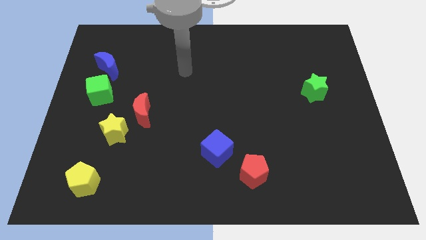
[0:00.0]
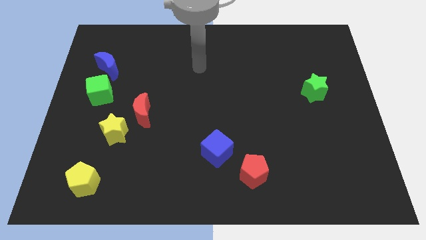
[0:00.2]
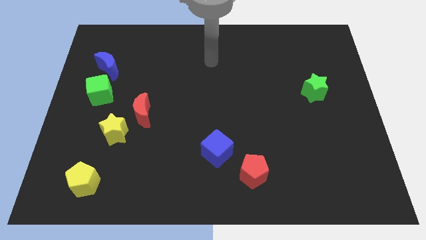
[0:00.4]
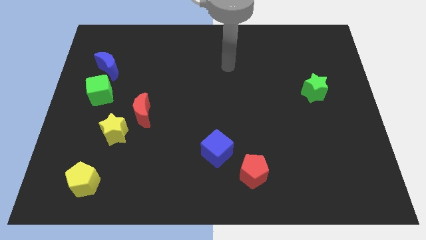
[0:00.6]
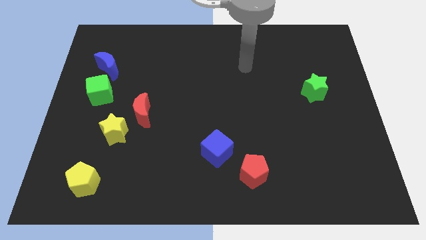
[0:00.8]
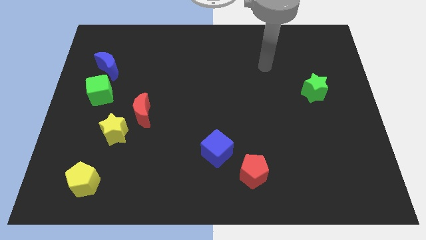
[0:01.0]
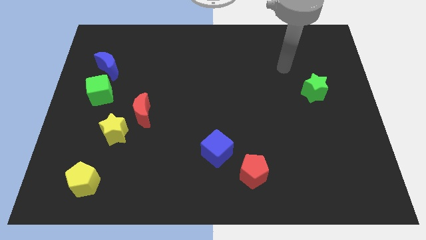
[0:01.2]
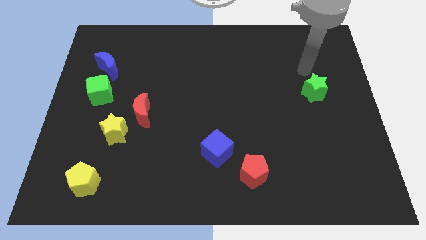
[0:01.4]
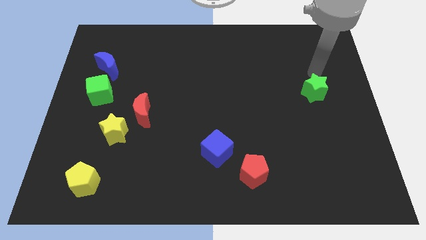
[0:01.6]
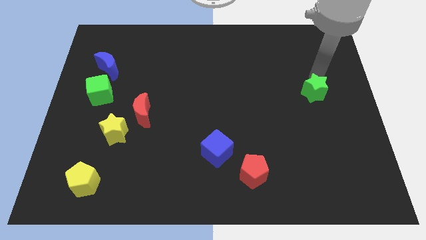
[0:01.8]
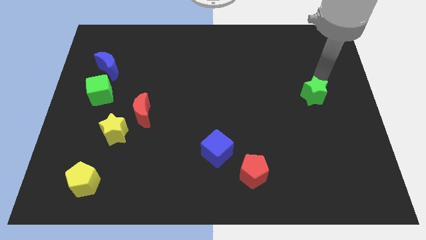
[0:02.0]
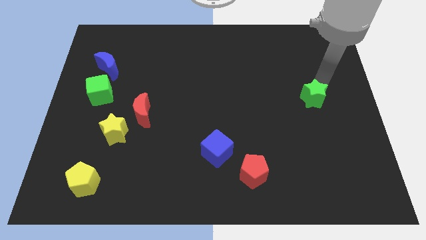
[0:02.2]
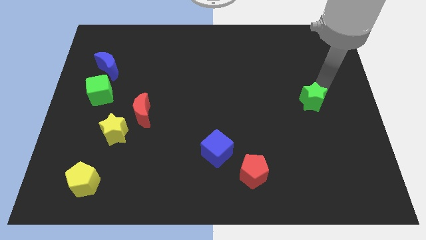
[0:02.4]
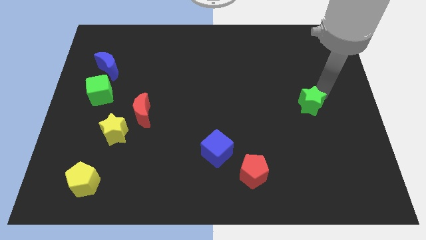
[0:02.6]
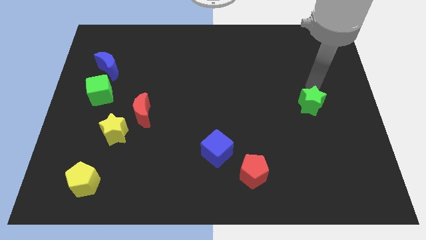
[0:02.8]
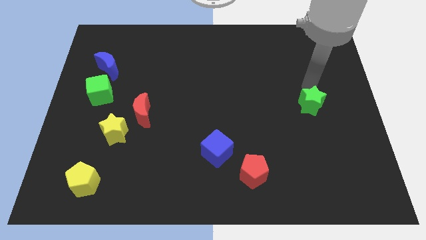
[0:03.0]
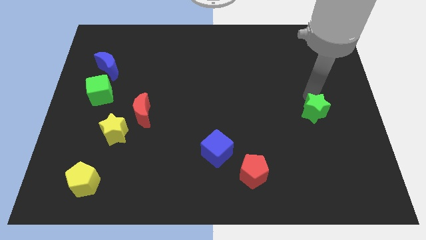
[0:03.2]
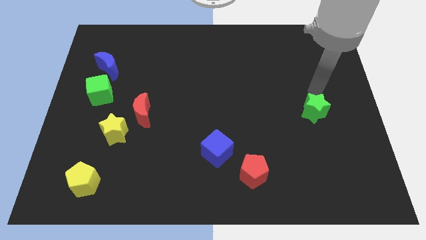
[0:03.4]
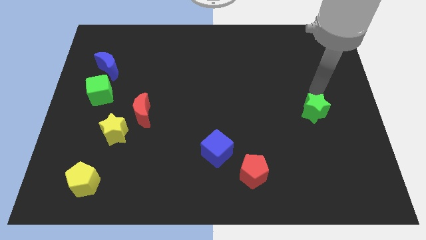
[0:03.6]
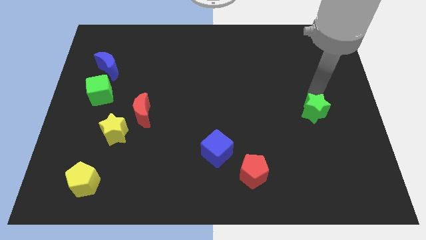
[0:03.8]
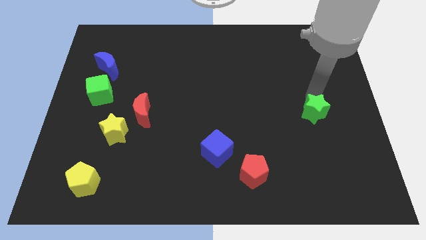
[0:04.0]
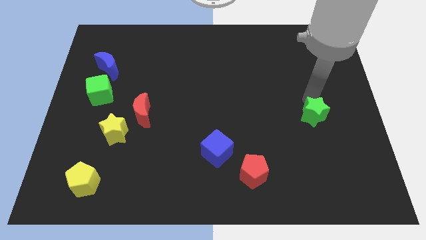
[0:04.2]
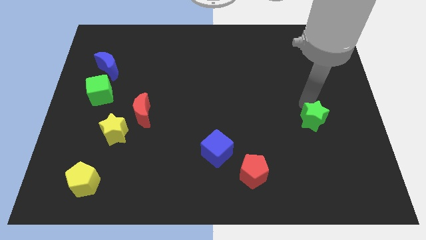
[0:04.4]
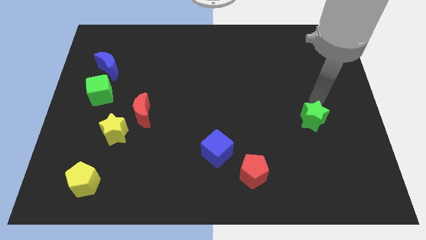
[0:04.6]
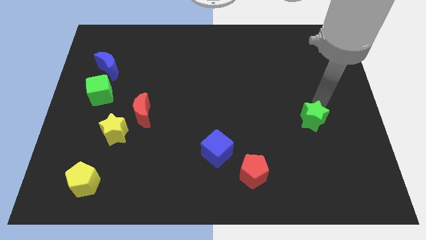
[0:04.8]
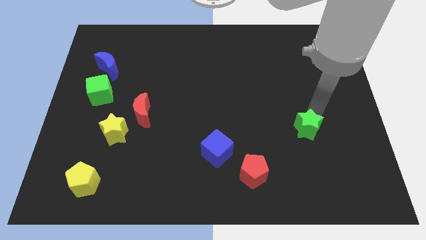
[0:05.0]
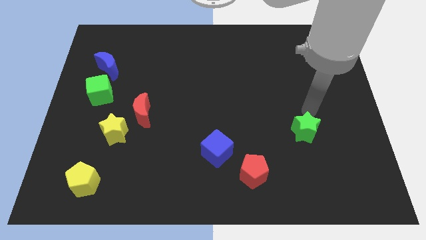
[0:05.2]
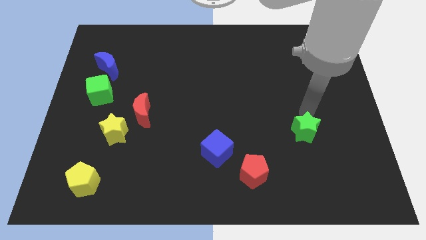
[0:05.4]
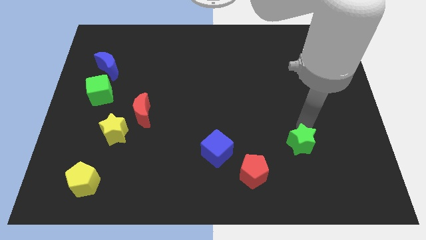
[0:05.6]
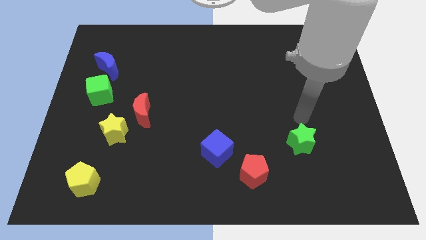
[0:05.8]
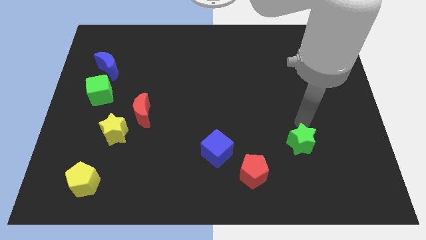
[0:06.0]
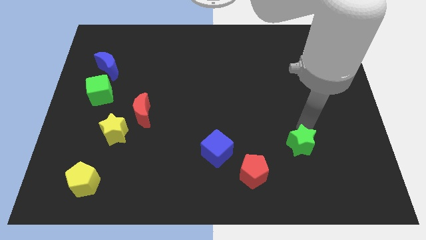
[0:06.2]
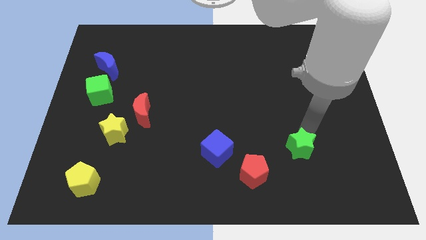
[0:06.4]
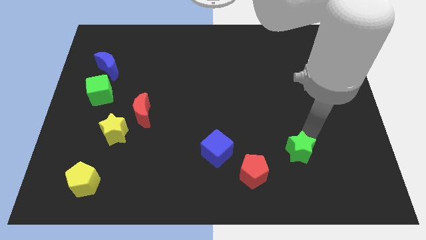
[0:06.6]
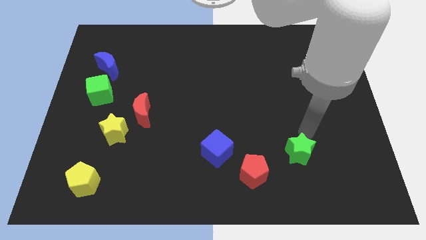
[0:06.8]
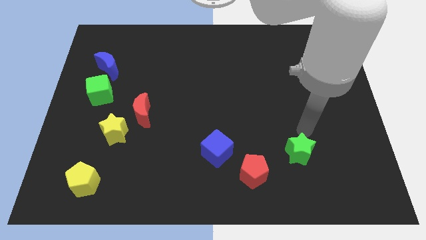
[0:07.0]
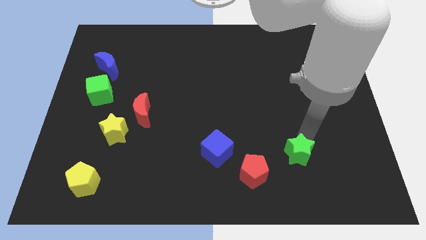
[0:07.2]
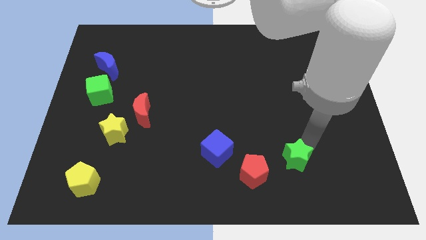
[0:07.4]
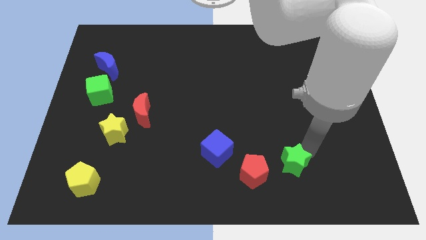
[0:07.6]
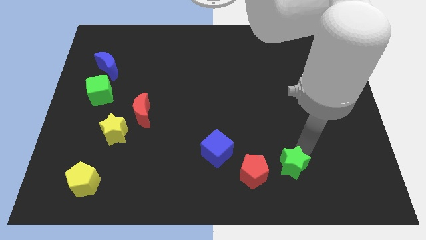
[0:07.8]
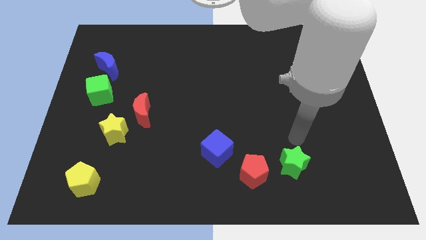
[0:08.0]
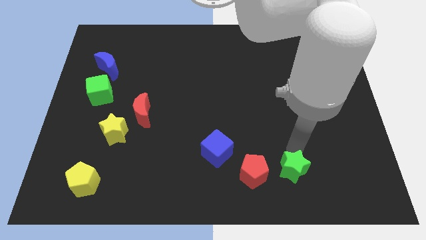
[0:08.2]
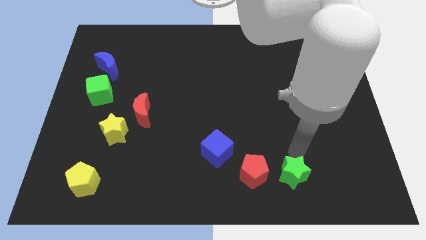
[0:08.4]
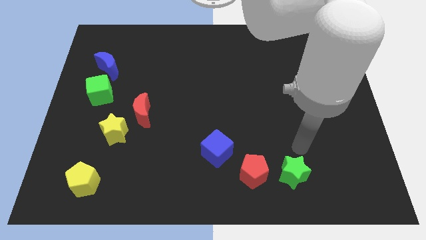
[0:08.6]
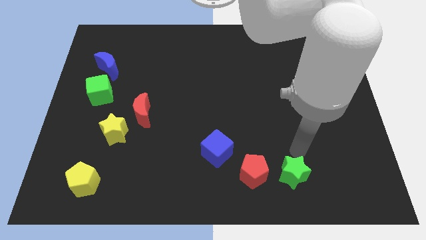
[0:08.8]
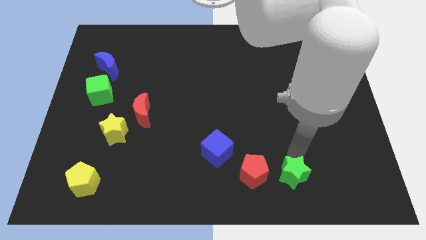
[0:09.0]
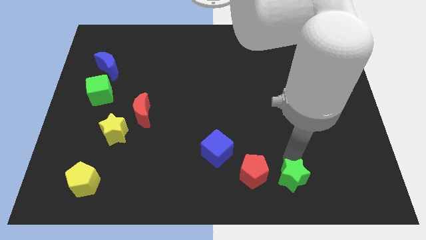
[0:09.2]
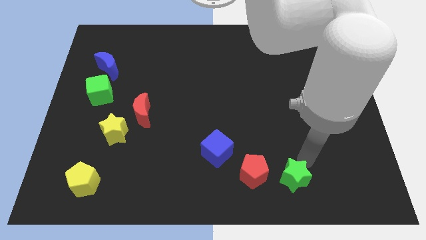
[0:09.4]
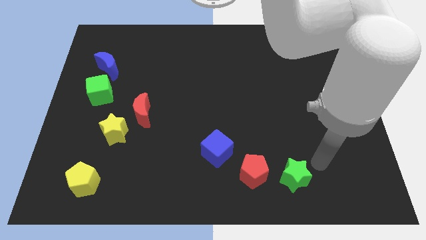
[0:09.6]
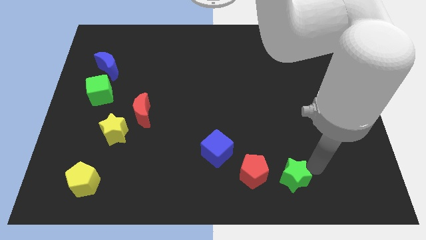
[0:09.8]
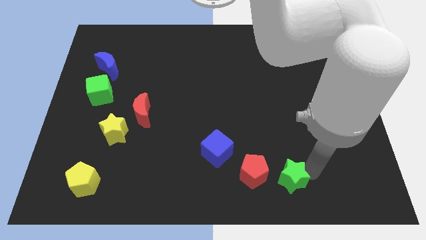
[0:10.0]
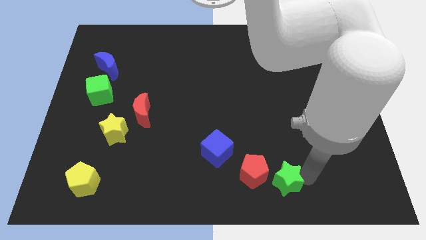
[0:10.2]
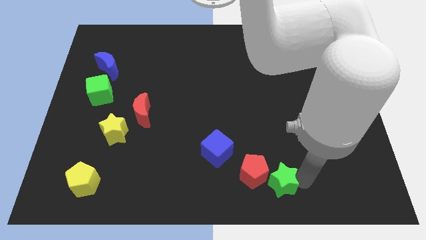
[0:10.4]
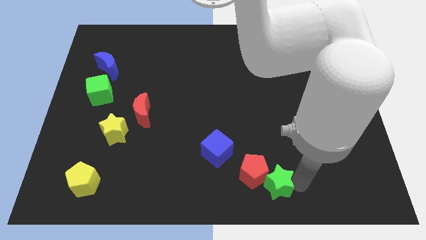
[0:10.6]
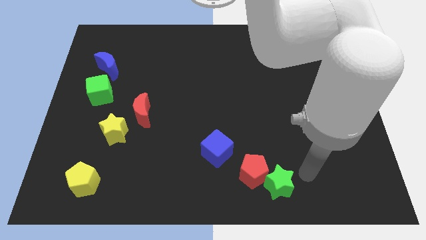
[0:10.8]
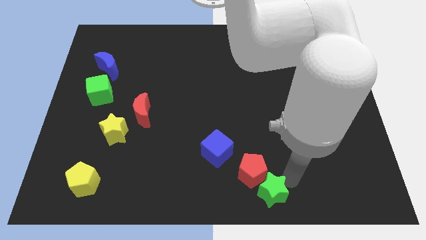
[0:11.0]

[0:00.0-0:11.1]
slide the green star to the bottom side

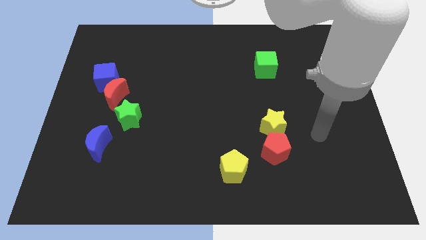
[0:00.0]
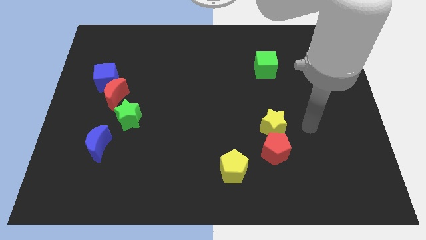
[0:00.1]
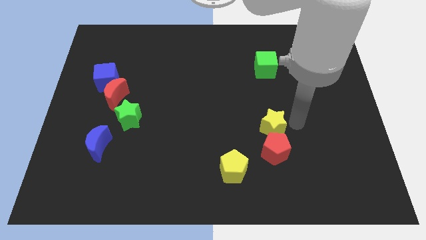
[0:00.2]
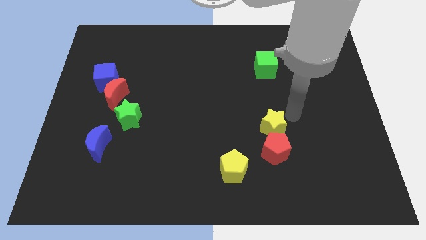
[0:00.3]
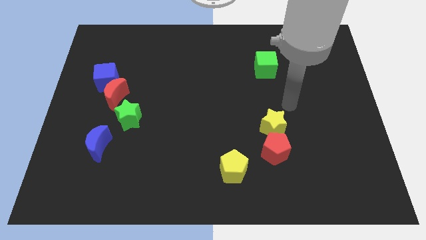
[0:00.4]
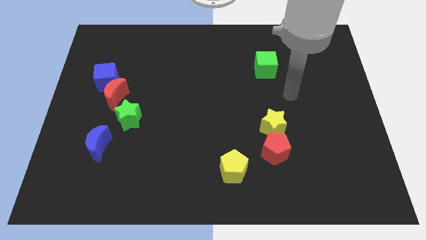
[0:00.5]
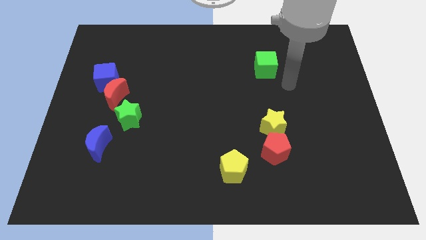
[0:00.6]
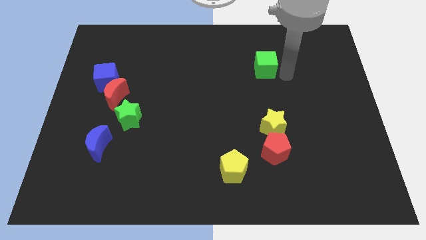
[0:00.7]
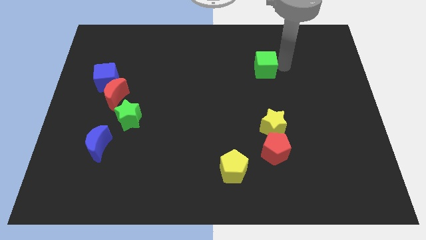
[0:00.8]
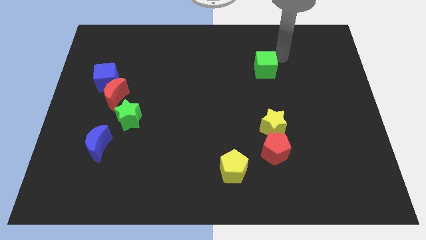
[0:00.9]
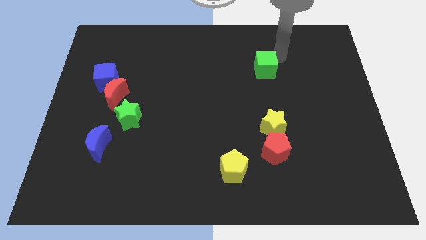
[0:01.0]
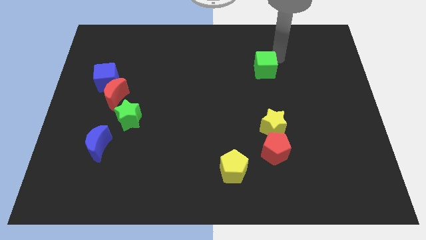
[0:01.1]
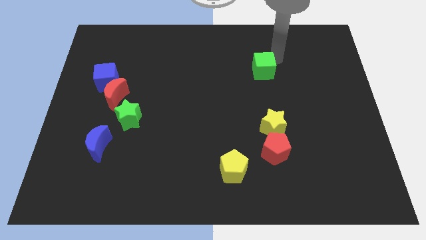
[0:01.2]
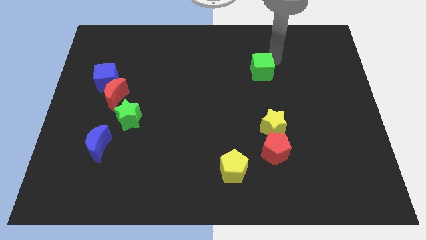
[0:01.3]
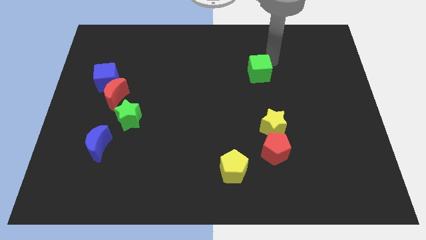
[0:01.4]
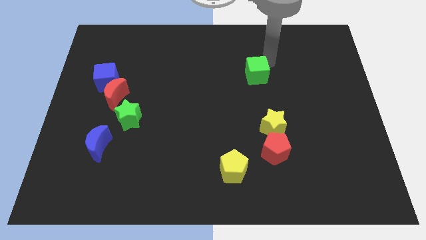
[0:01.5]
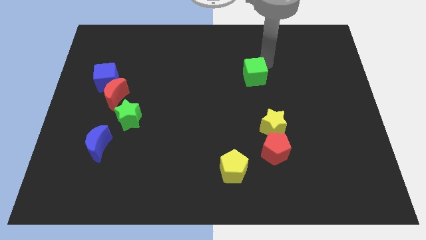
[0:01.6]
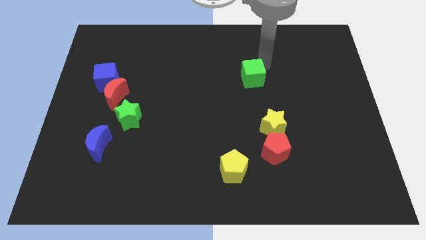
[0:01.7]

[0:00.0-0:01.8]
move the green cube to the center
